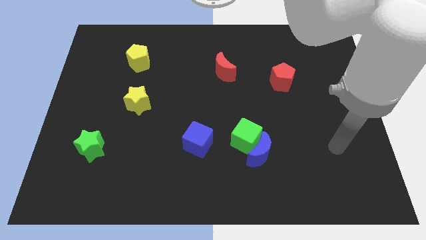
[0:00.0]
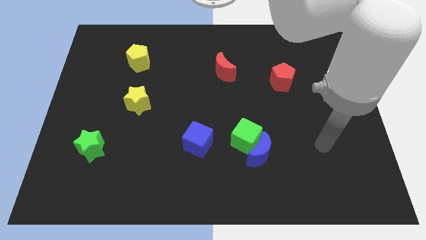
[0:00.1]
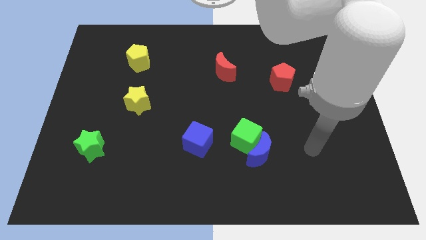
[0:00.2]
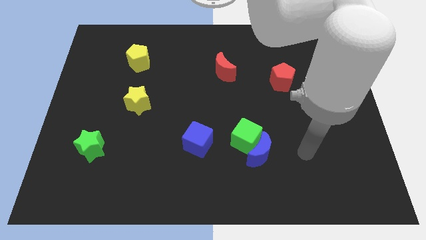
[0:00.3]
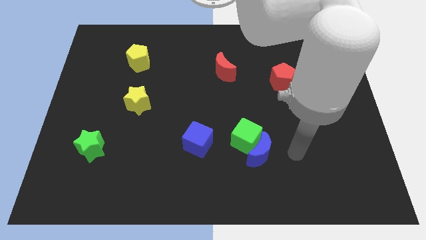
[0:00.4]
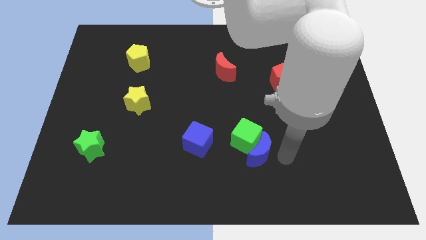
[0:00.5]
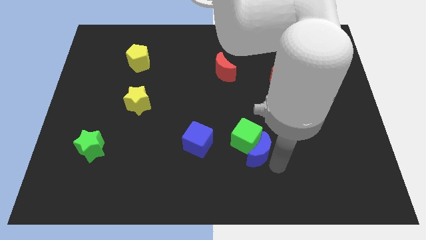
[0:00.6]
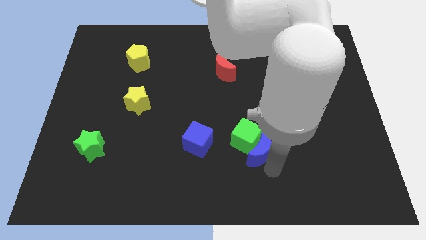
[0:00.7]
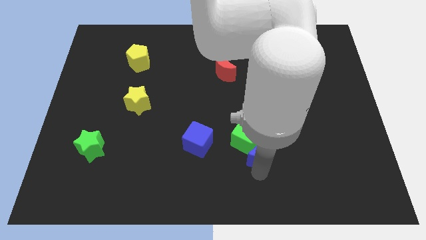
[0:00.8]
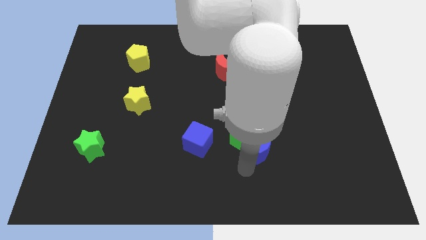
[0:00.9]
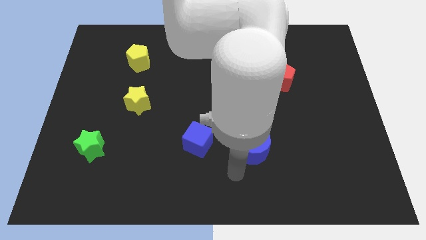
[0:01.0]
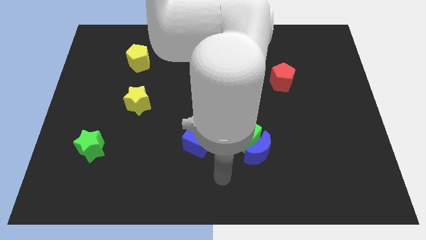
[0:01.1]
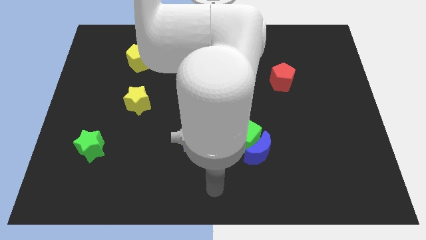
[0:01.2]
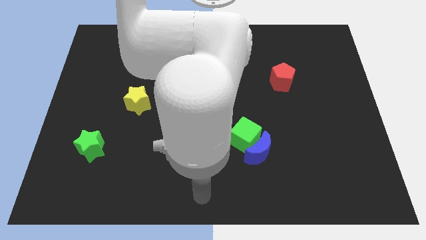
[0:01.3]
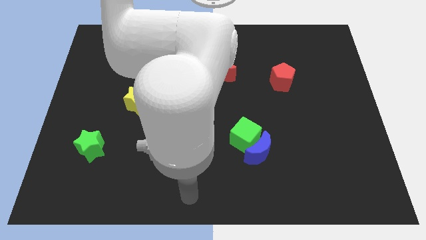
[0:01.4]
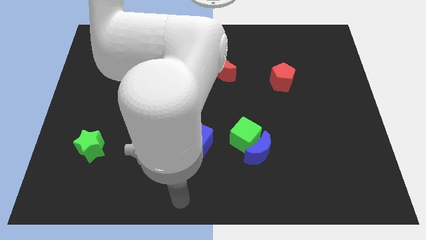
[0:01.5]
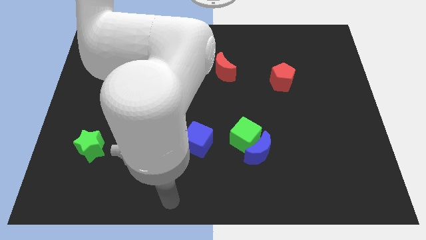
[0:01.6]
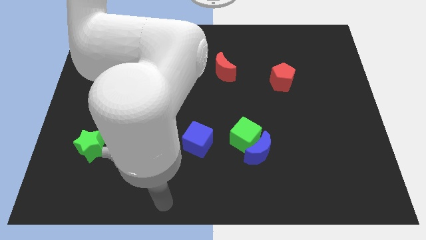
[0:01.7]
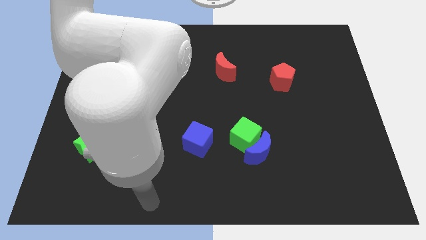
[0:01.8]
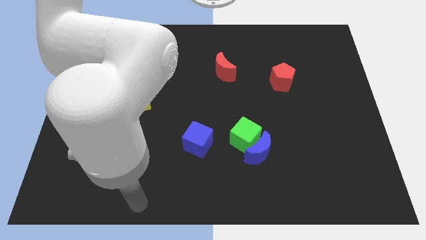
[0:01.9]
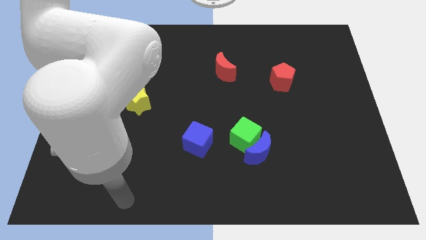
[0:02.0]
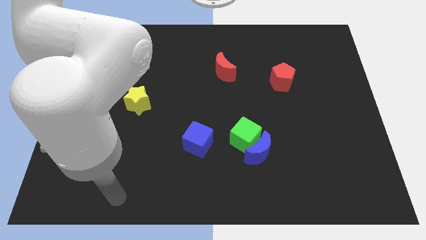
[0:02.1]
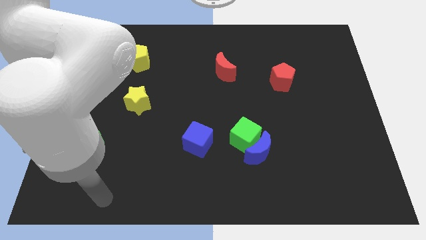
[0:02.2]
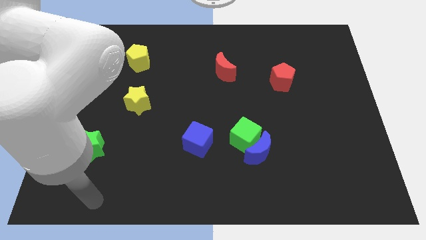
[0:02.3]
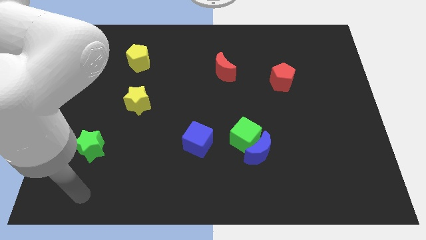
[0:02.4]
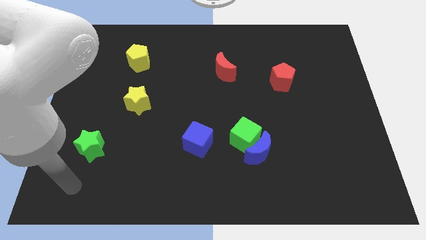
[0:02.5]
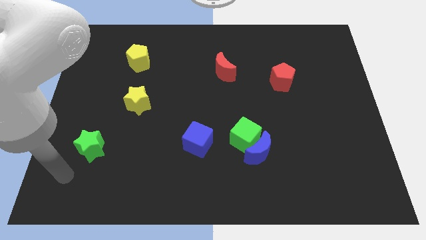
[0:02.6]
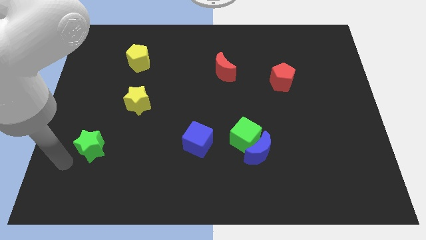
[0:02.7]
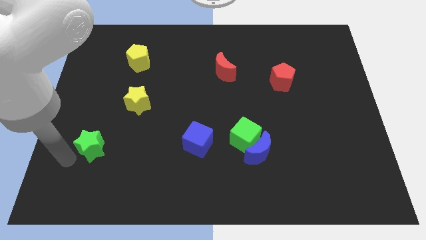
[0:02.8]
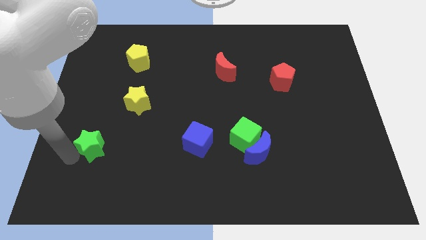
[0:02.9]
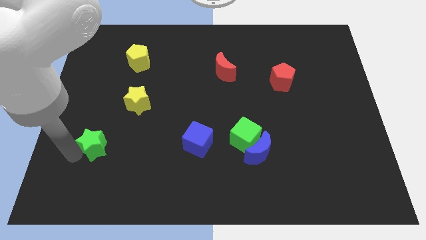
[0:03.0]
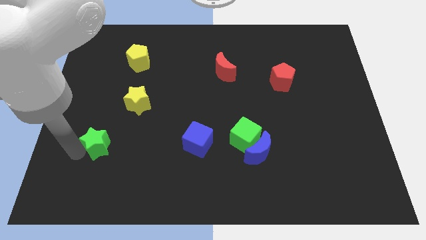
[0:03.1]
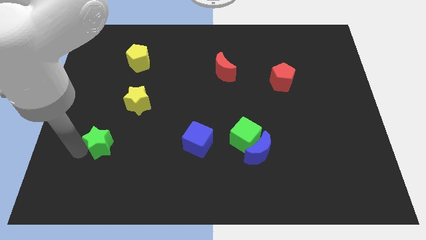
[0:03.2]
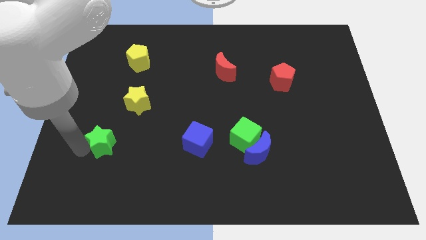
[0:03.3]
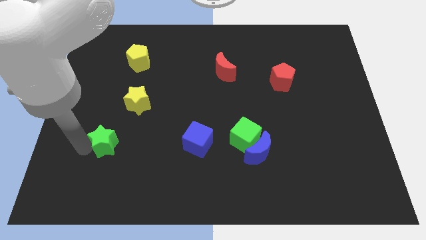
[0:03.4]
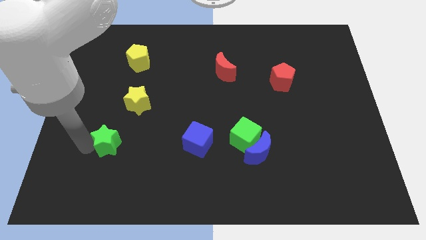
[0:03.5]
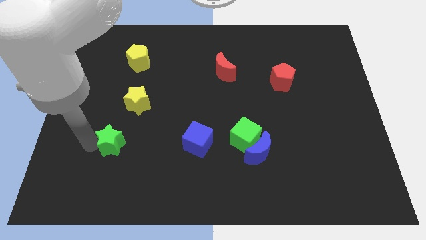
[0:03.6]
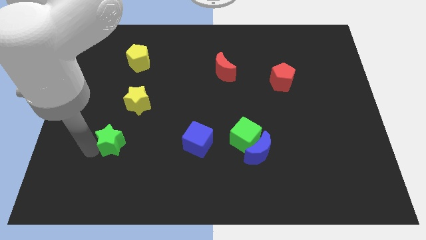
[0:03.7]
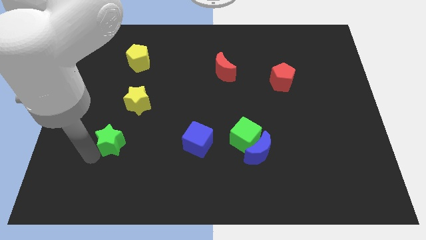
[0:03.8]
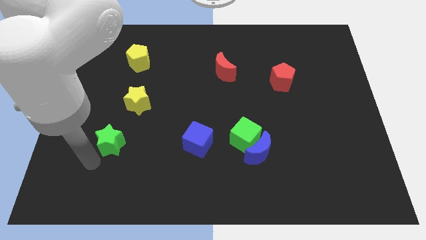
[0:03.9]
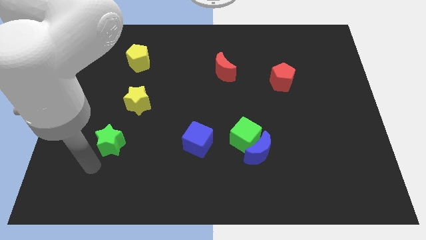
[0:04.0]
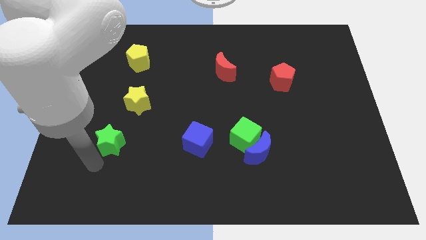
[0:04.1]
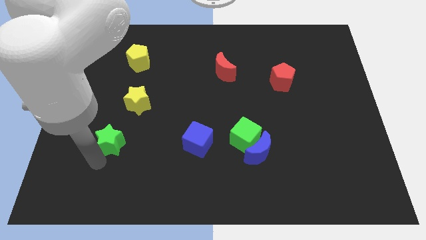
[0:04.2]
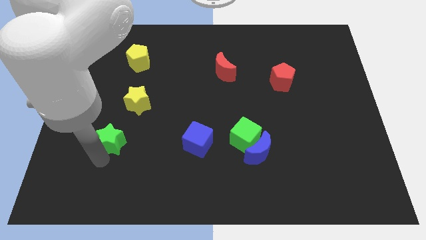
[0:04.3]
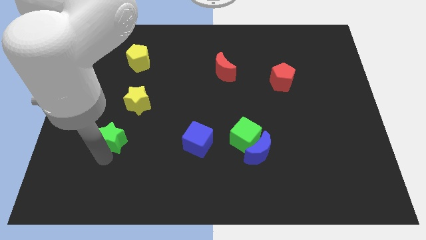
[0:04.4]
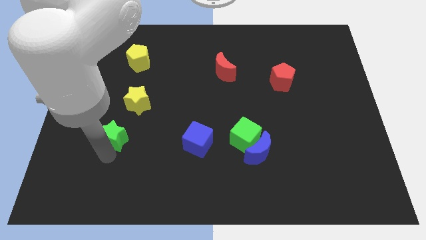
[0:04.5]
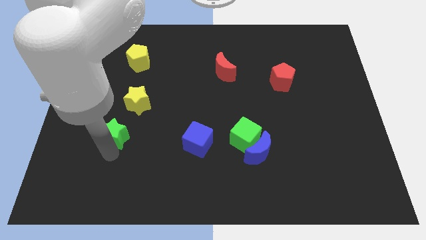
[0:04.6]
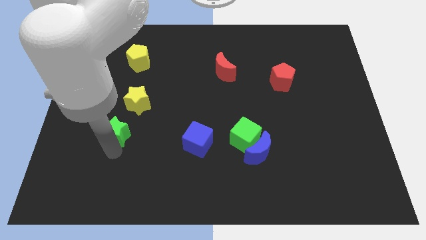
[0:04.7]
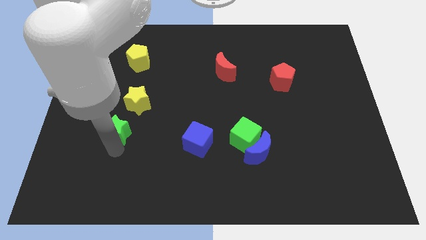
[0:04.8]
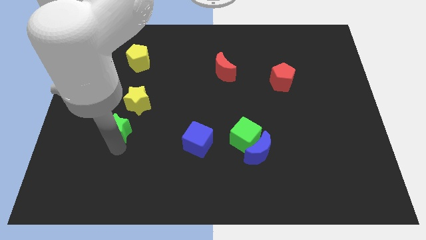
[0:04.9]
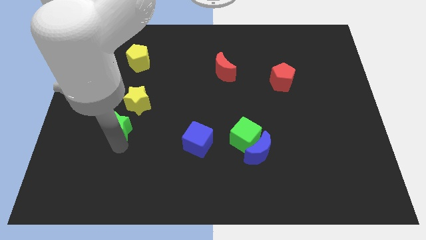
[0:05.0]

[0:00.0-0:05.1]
push the green star somewhat upwards and to the right

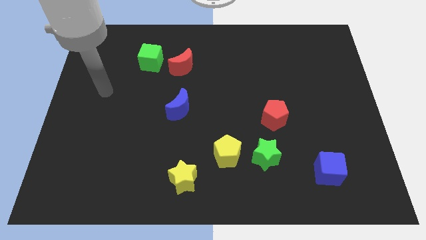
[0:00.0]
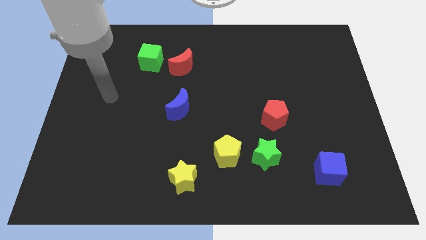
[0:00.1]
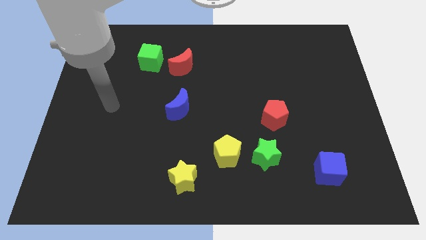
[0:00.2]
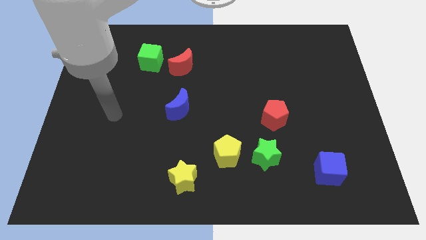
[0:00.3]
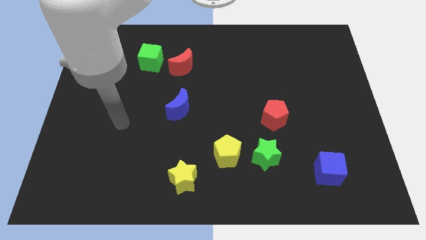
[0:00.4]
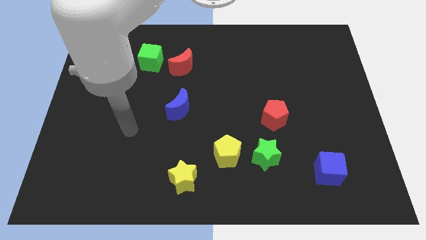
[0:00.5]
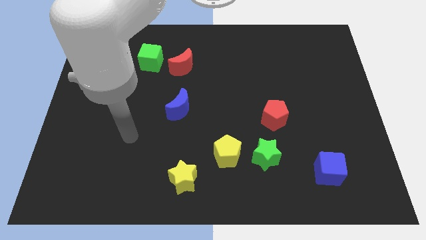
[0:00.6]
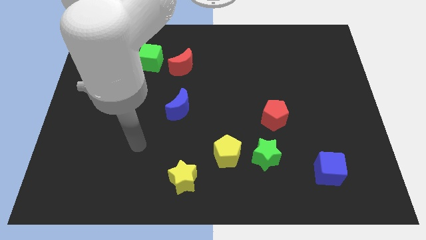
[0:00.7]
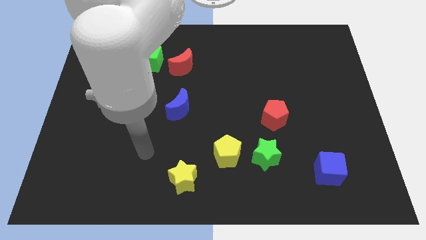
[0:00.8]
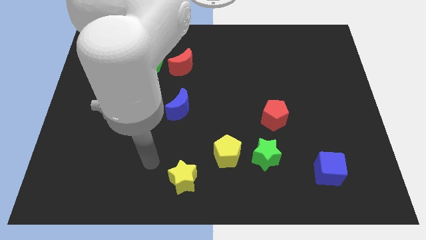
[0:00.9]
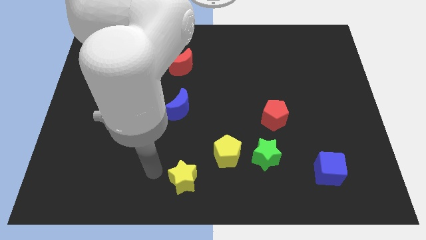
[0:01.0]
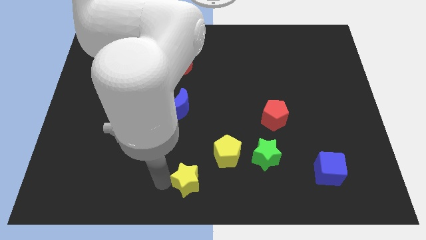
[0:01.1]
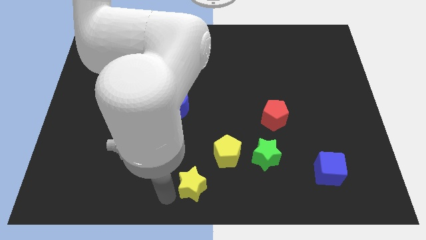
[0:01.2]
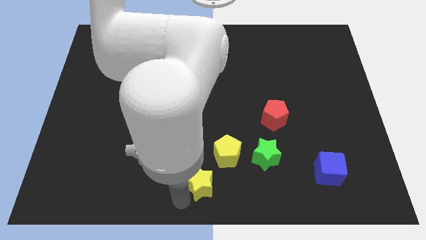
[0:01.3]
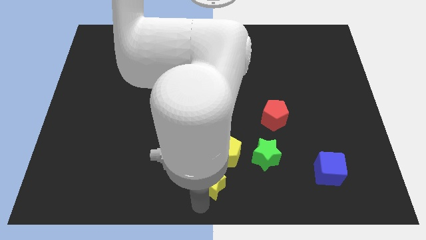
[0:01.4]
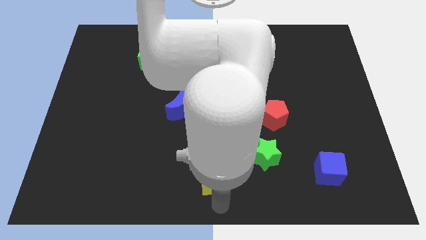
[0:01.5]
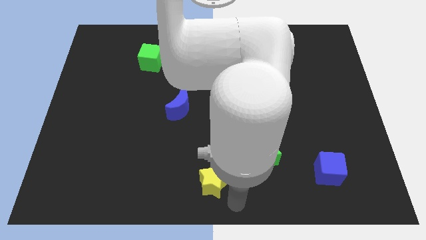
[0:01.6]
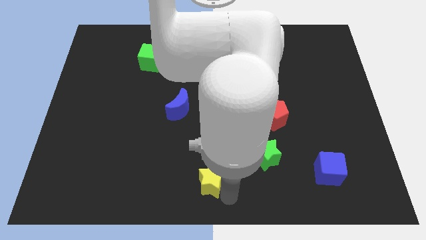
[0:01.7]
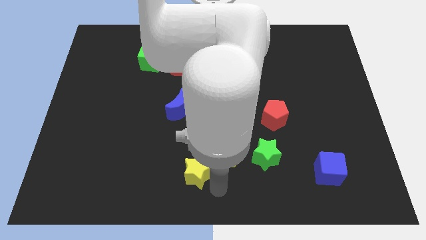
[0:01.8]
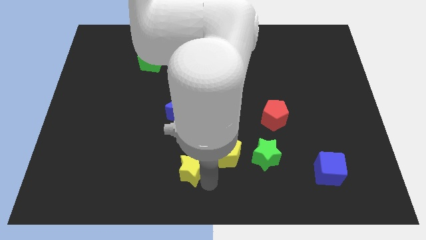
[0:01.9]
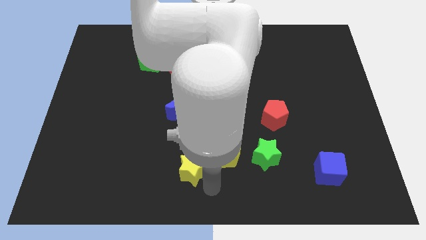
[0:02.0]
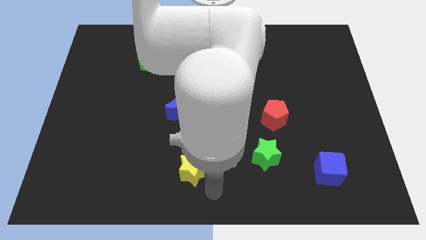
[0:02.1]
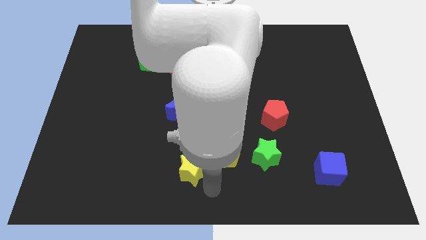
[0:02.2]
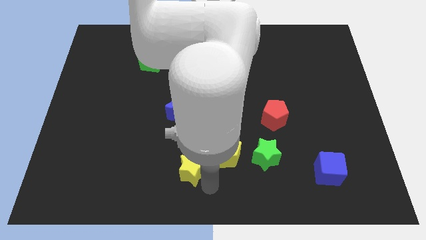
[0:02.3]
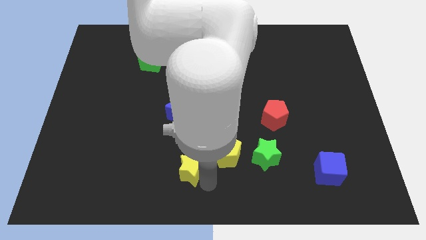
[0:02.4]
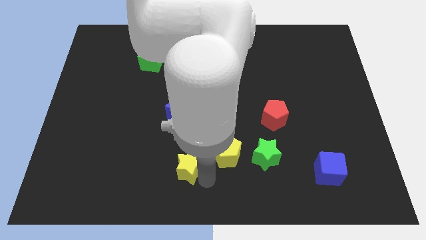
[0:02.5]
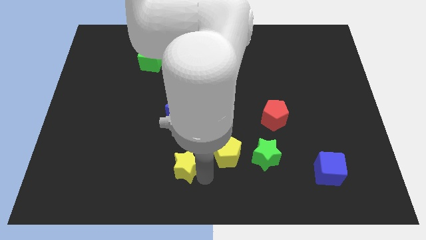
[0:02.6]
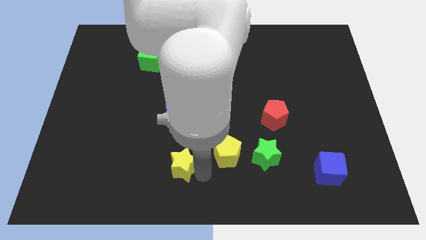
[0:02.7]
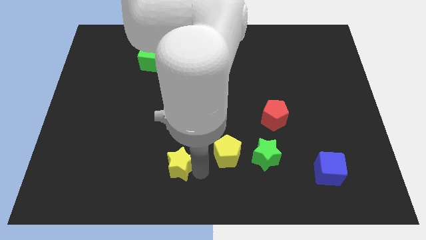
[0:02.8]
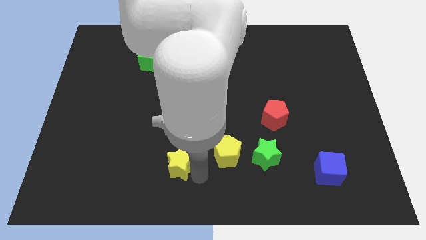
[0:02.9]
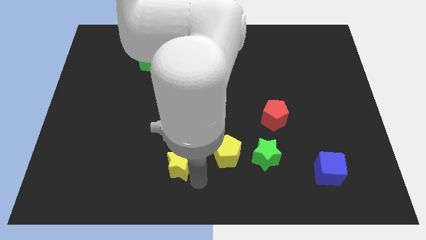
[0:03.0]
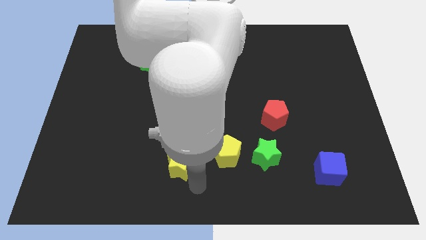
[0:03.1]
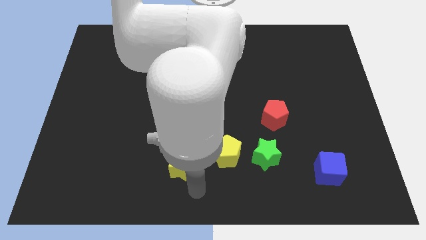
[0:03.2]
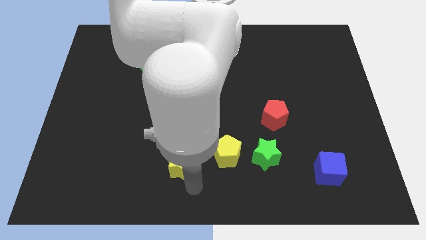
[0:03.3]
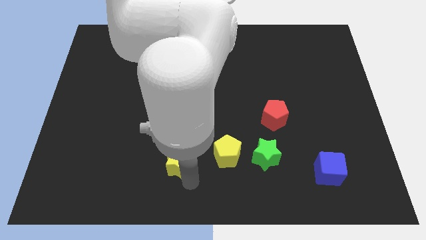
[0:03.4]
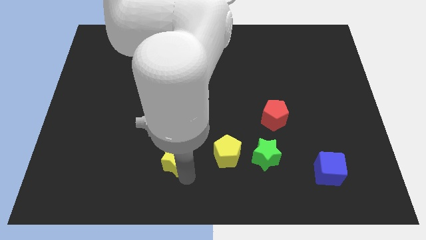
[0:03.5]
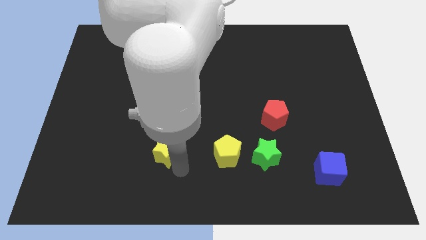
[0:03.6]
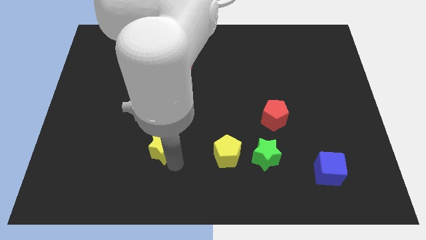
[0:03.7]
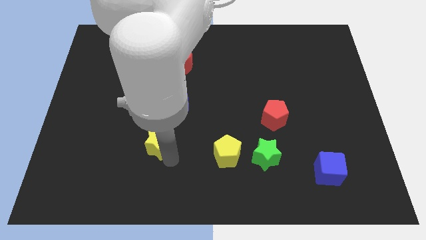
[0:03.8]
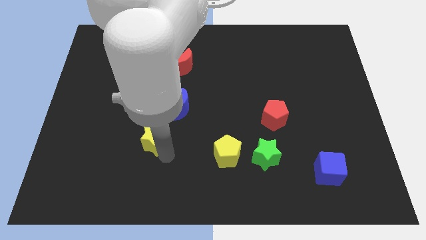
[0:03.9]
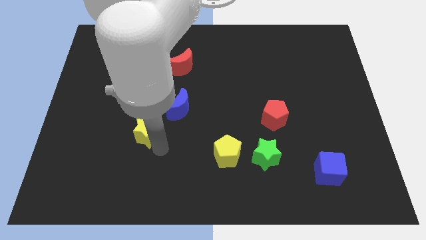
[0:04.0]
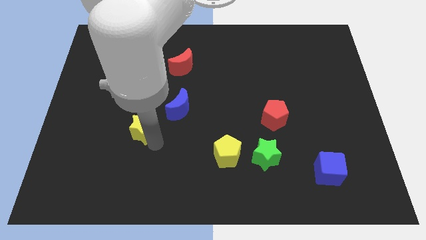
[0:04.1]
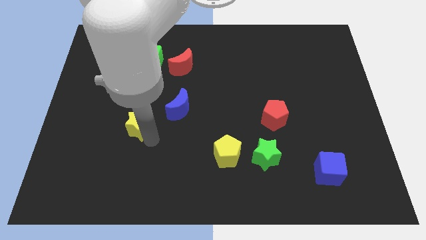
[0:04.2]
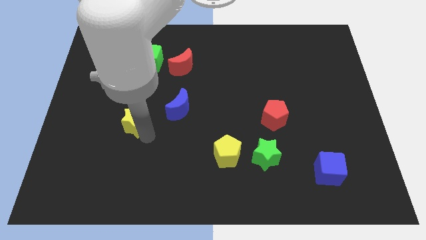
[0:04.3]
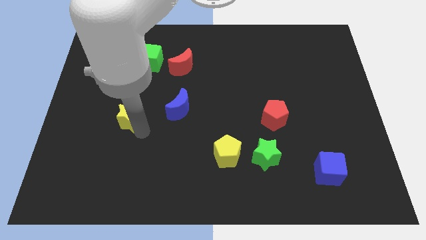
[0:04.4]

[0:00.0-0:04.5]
push the yellow star diagonally up and left
